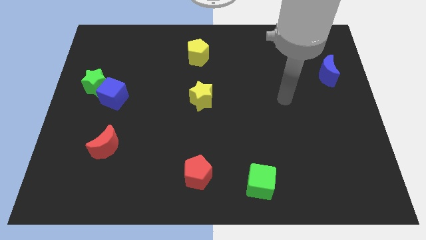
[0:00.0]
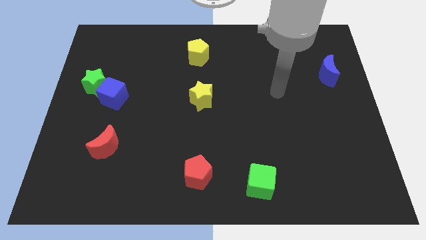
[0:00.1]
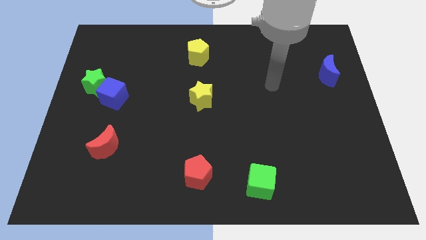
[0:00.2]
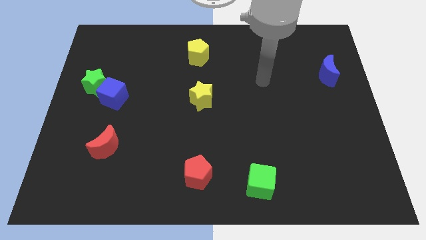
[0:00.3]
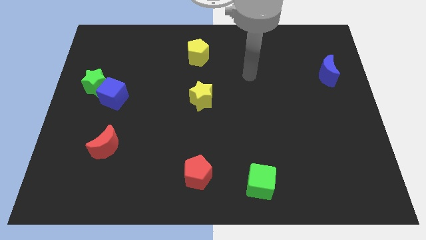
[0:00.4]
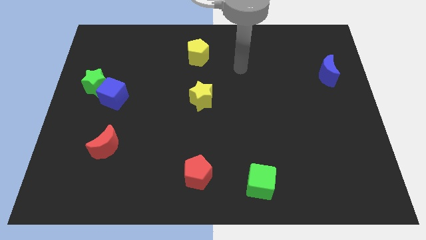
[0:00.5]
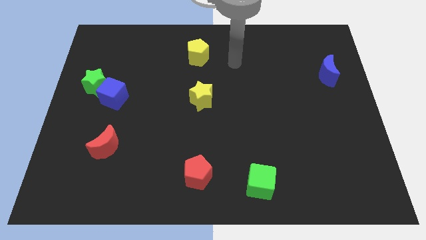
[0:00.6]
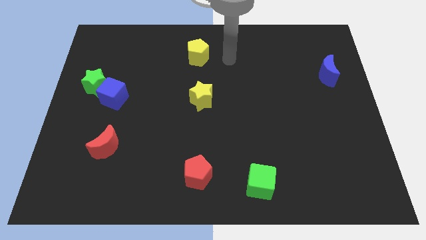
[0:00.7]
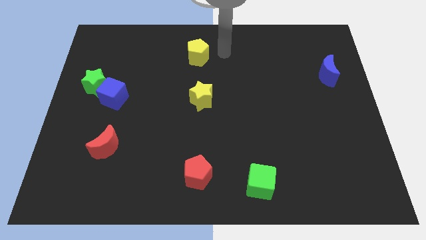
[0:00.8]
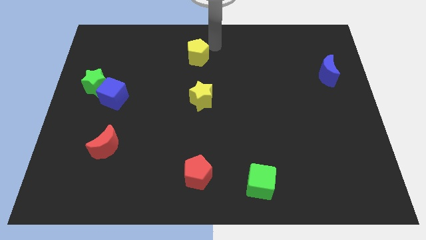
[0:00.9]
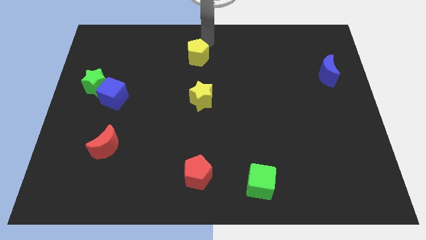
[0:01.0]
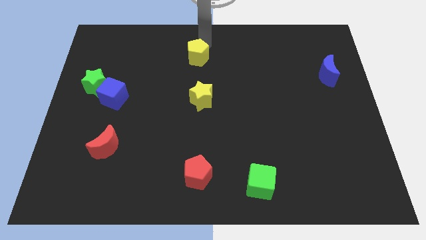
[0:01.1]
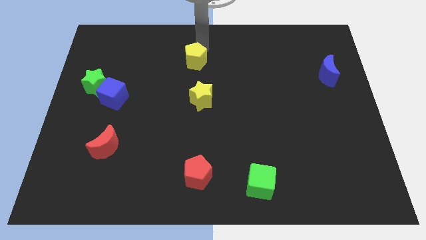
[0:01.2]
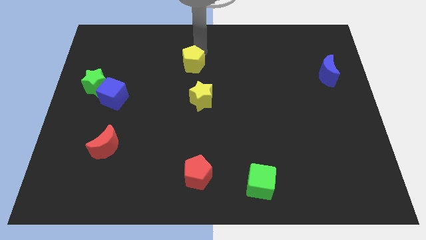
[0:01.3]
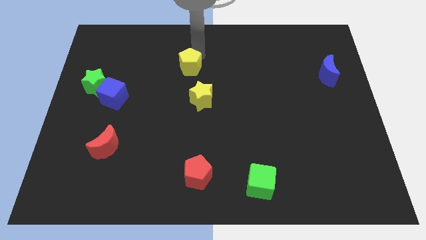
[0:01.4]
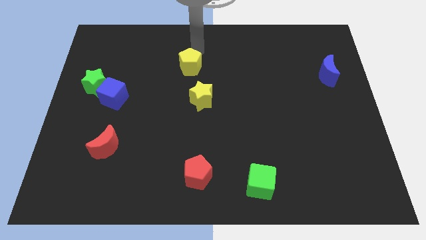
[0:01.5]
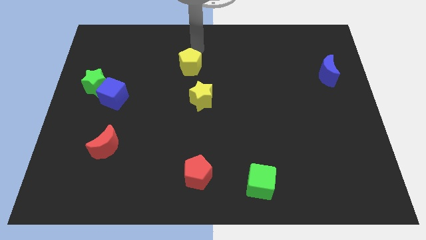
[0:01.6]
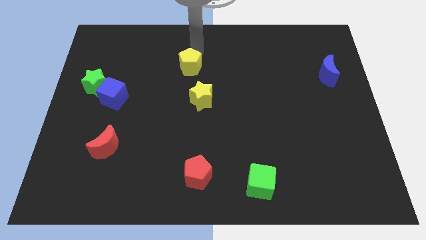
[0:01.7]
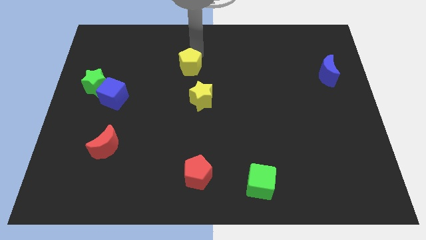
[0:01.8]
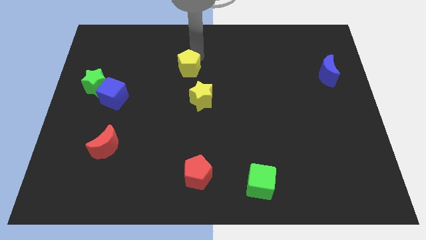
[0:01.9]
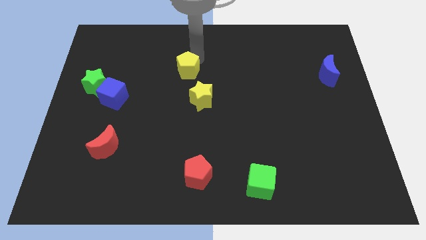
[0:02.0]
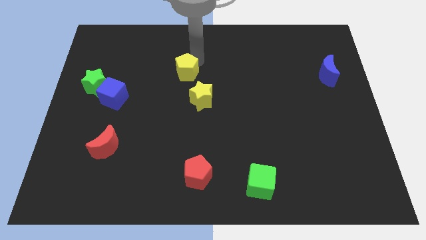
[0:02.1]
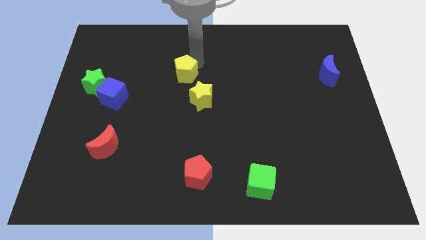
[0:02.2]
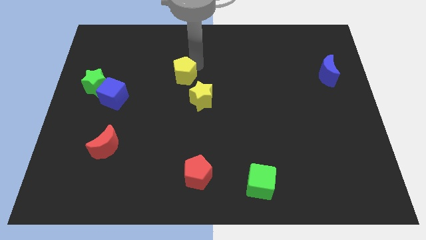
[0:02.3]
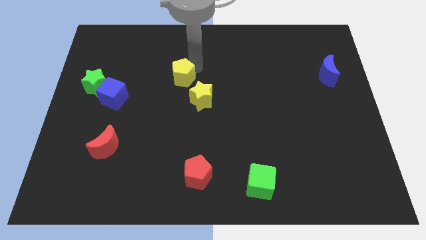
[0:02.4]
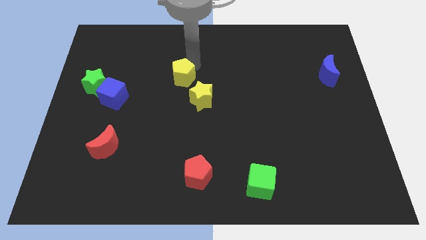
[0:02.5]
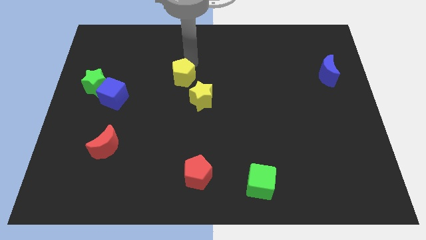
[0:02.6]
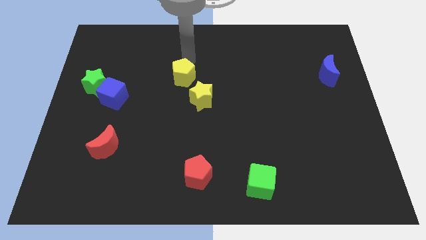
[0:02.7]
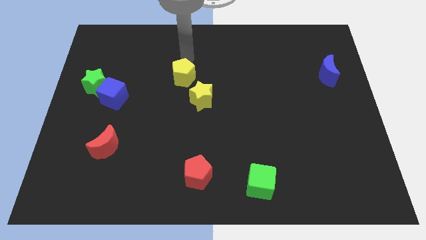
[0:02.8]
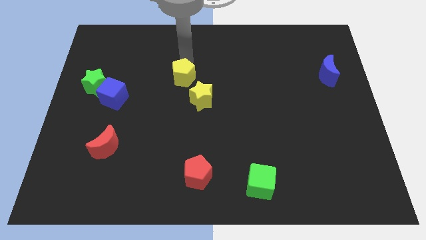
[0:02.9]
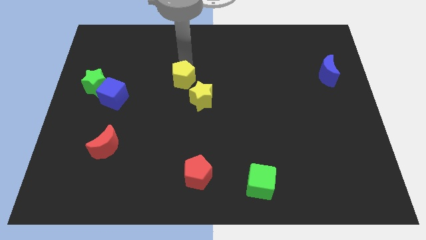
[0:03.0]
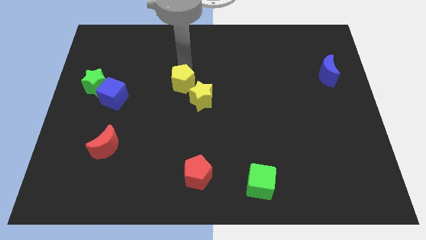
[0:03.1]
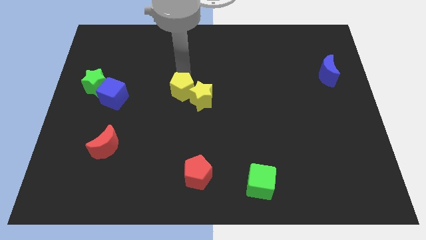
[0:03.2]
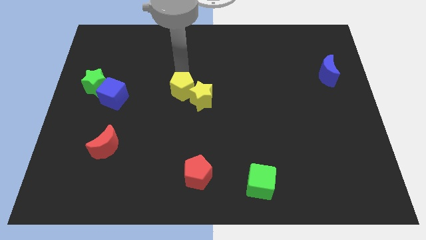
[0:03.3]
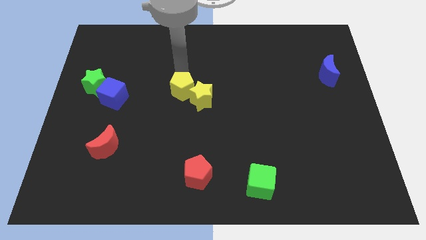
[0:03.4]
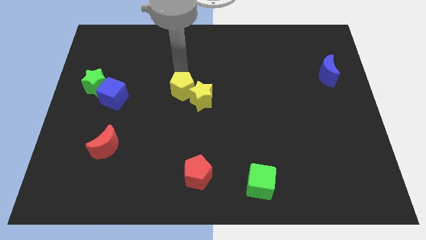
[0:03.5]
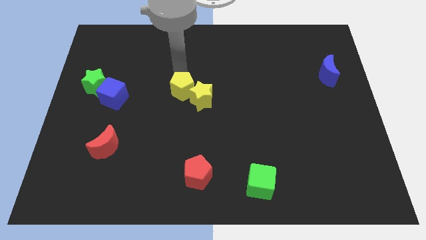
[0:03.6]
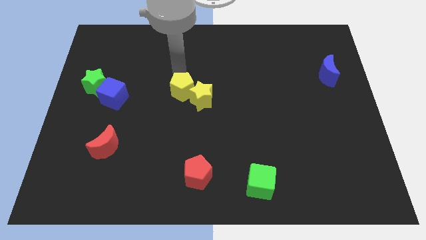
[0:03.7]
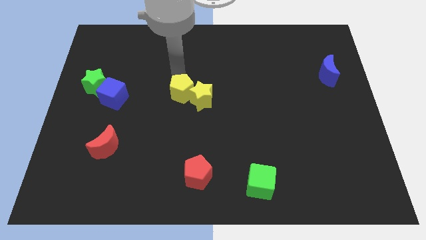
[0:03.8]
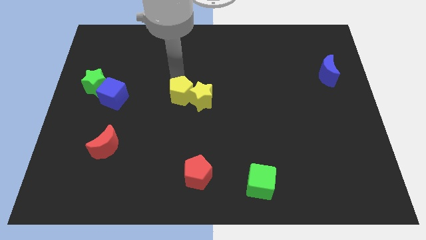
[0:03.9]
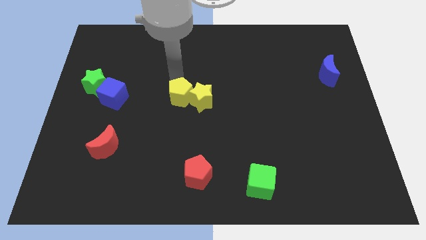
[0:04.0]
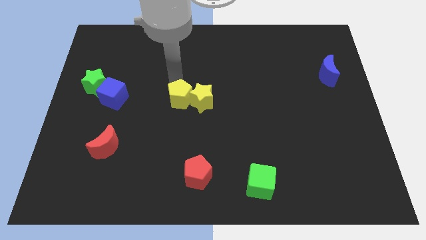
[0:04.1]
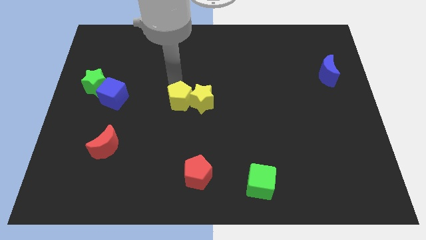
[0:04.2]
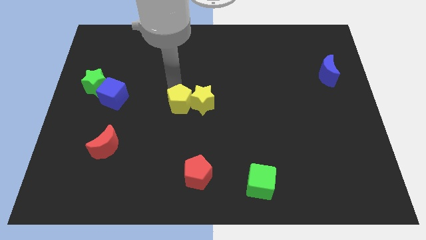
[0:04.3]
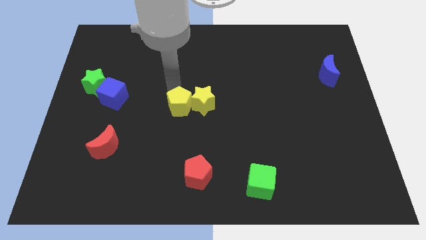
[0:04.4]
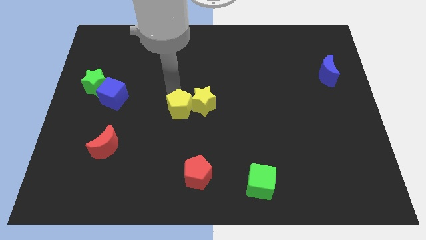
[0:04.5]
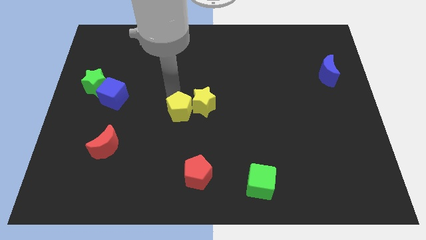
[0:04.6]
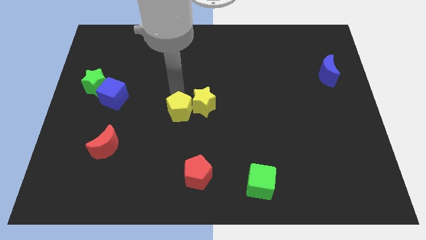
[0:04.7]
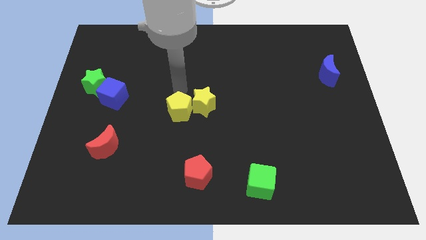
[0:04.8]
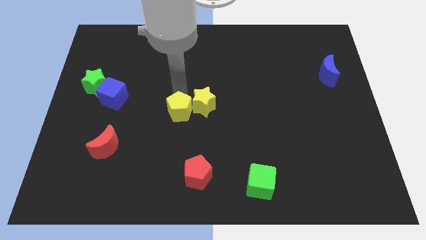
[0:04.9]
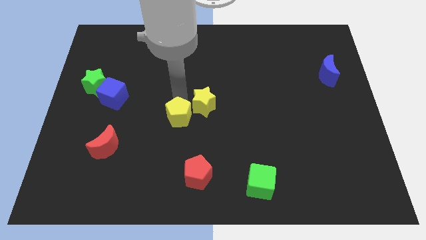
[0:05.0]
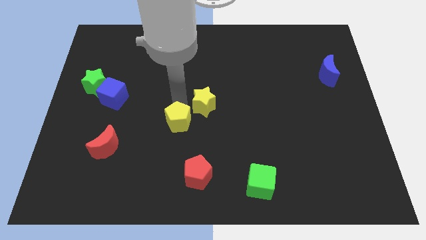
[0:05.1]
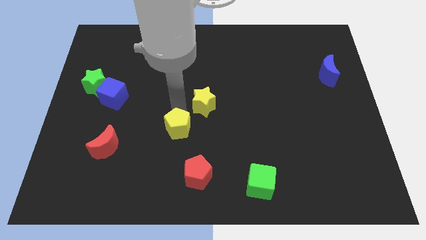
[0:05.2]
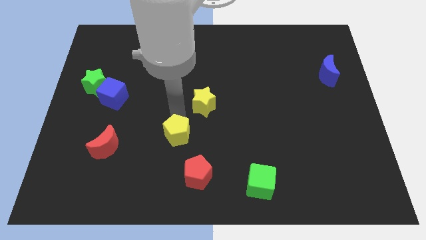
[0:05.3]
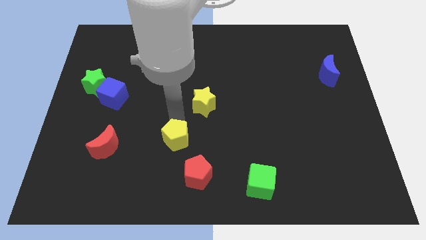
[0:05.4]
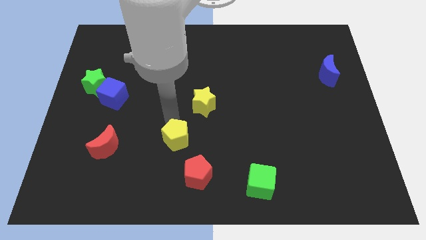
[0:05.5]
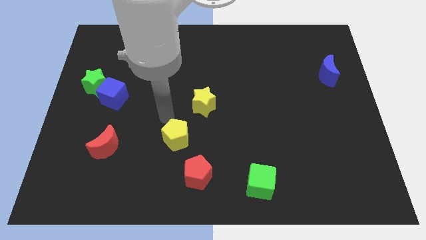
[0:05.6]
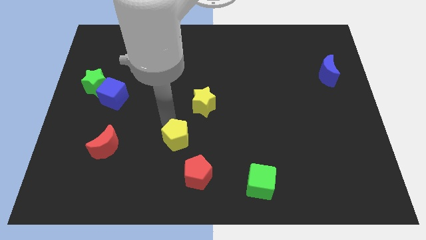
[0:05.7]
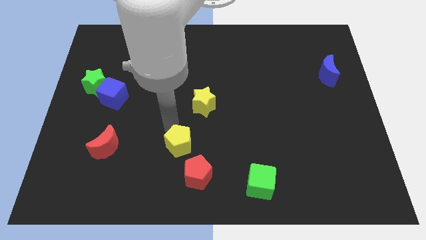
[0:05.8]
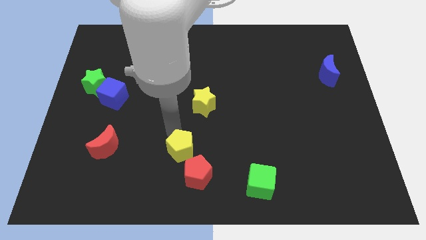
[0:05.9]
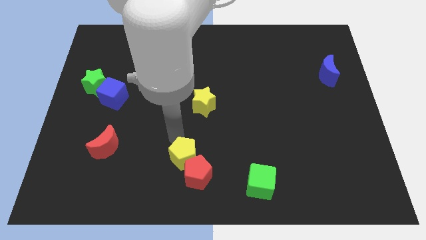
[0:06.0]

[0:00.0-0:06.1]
push the yellow pentagon next to the red pentagon

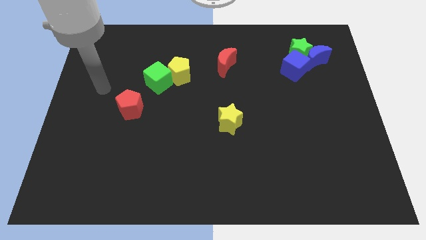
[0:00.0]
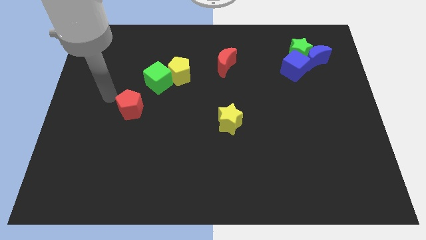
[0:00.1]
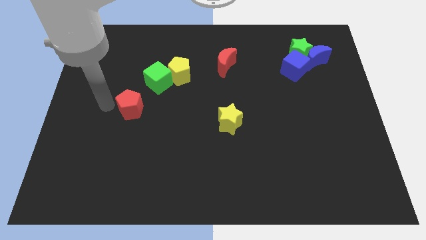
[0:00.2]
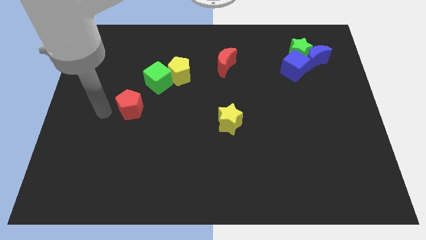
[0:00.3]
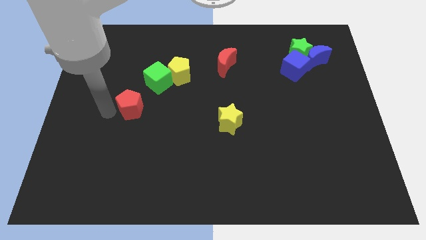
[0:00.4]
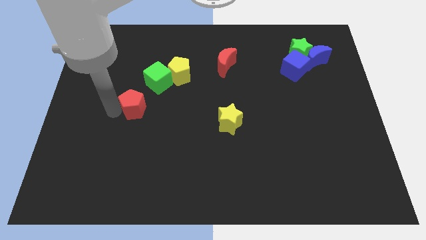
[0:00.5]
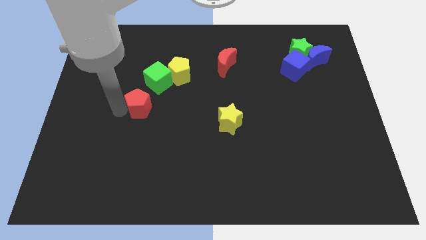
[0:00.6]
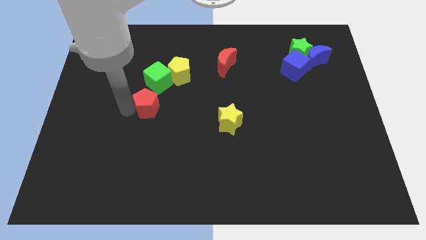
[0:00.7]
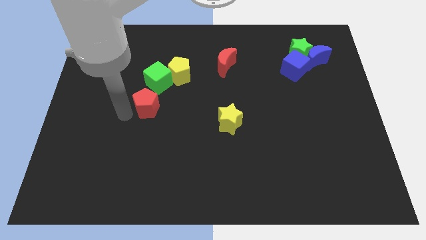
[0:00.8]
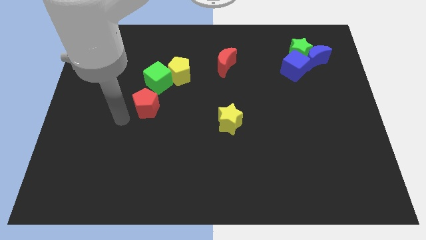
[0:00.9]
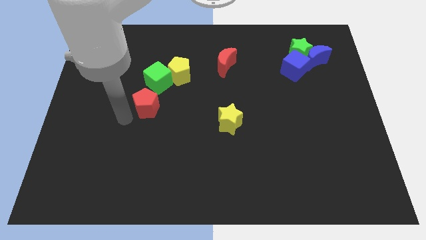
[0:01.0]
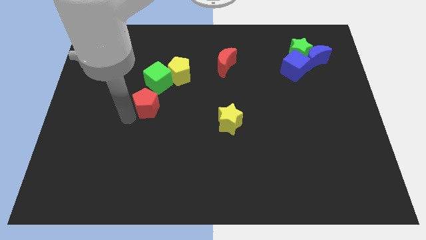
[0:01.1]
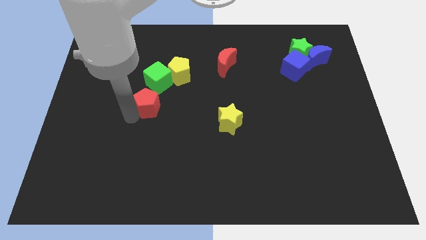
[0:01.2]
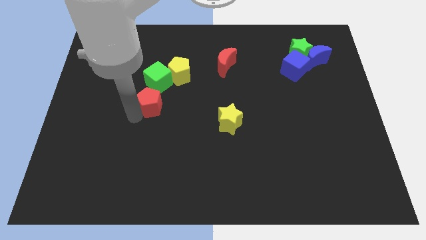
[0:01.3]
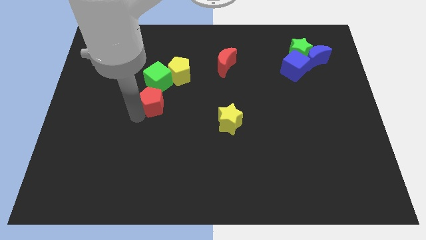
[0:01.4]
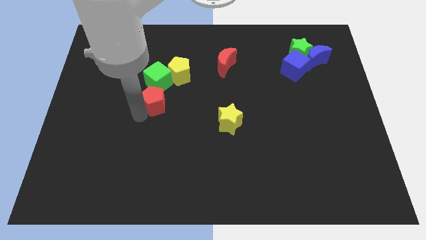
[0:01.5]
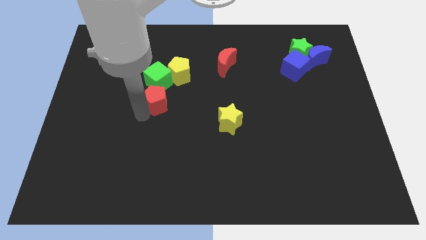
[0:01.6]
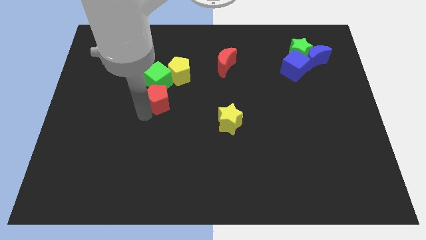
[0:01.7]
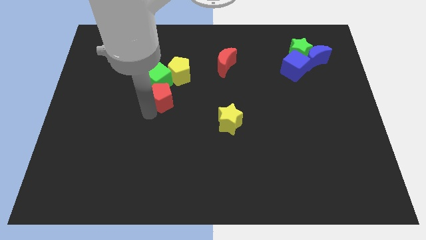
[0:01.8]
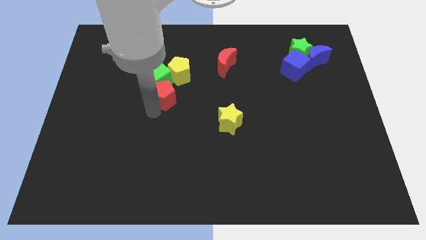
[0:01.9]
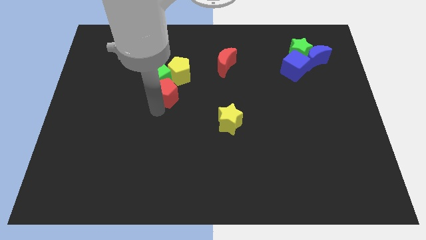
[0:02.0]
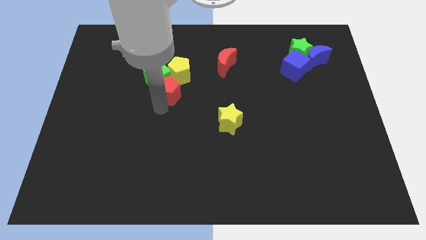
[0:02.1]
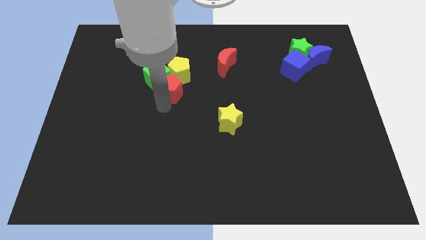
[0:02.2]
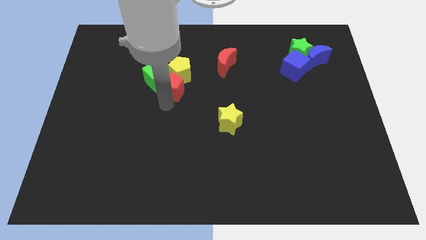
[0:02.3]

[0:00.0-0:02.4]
push the red pentagon towards the yellow pentagon
